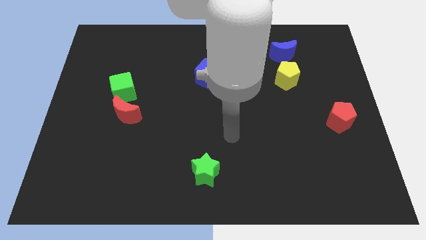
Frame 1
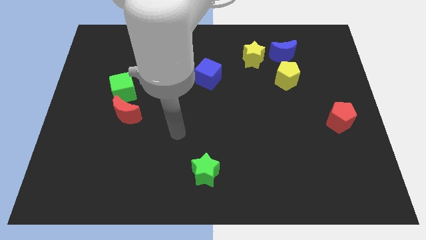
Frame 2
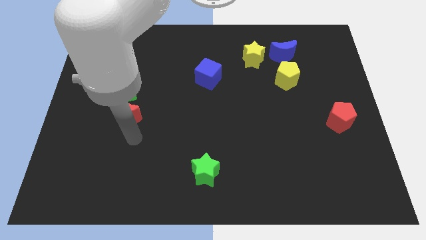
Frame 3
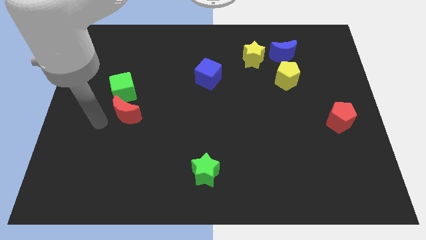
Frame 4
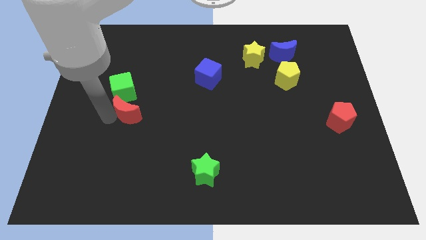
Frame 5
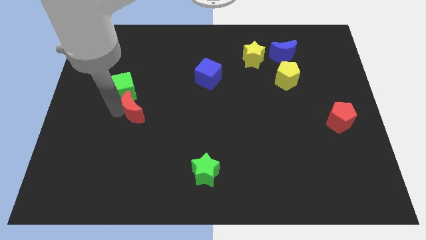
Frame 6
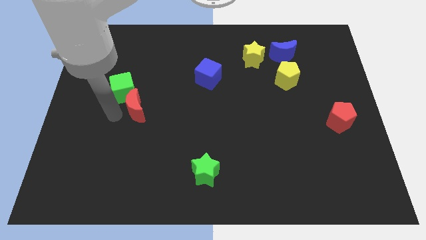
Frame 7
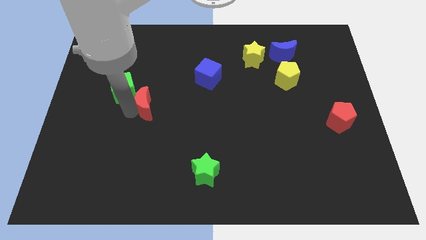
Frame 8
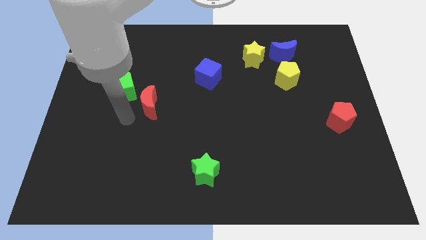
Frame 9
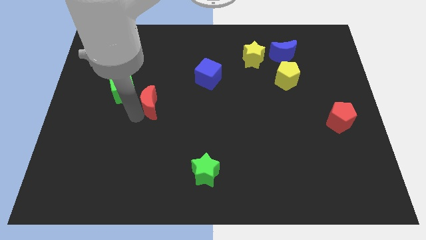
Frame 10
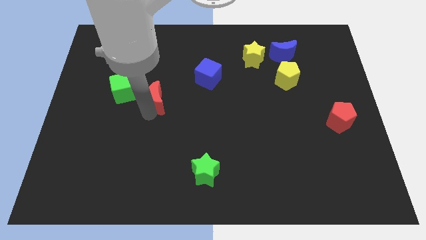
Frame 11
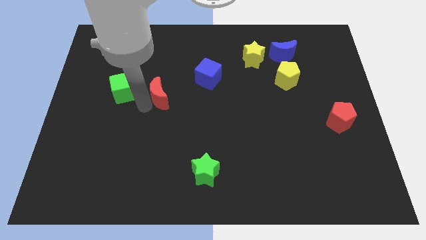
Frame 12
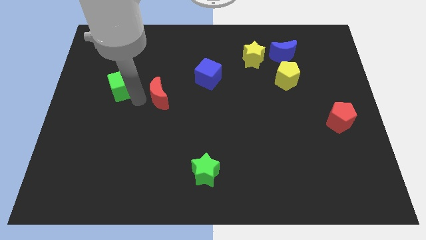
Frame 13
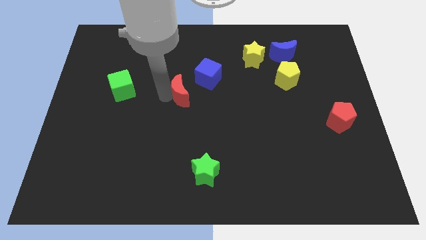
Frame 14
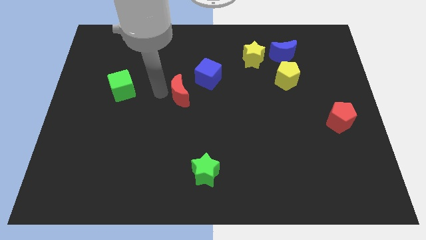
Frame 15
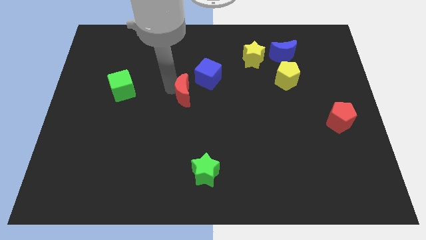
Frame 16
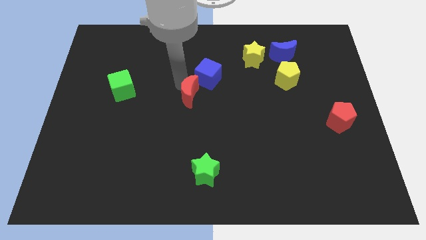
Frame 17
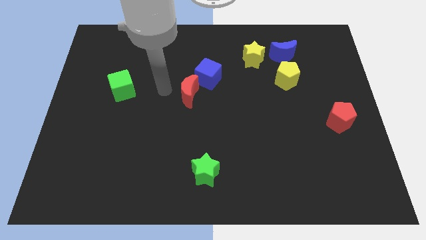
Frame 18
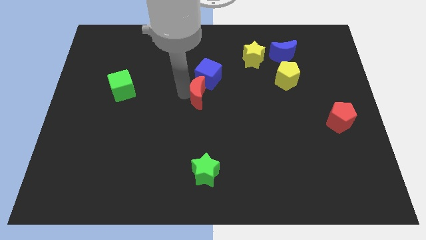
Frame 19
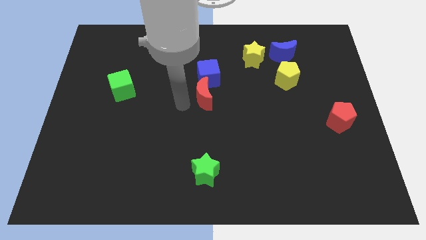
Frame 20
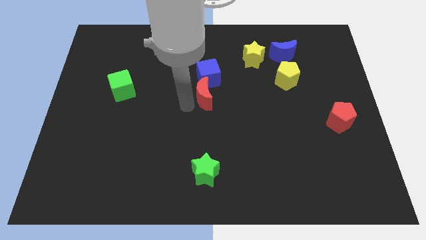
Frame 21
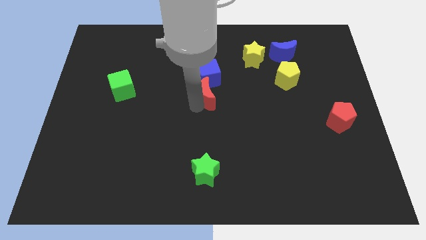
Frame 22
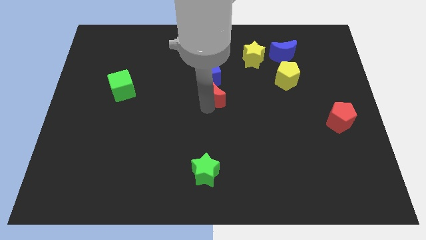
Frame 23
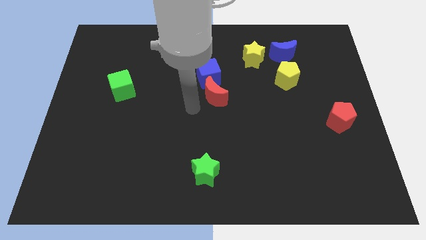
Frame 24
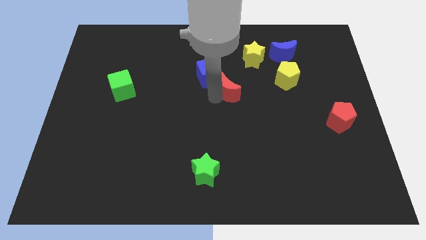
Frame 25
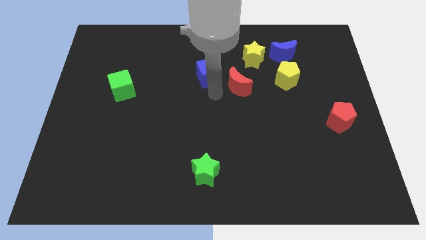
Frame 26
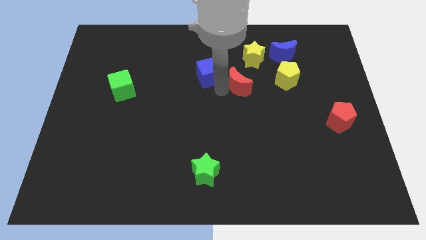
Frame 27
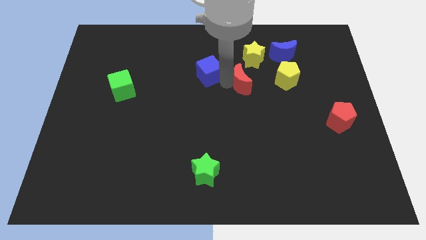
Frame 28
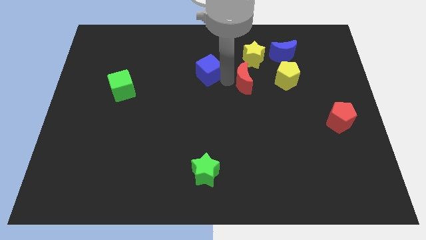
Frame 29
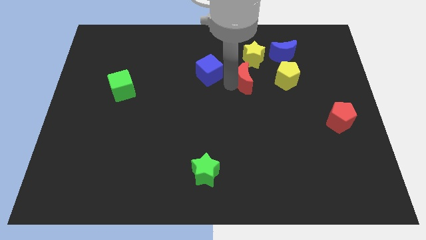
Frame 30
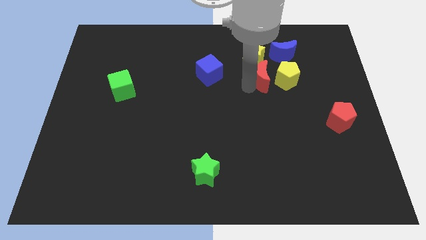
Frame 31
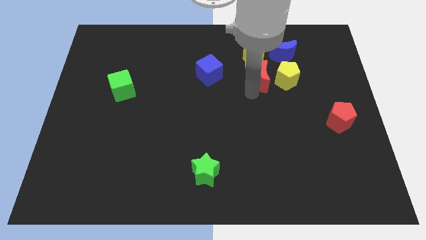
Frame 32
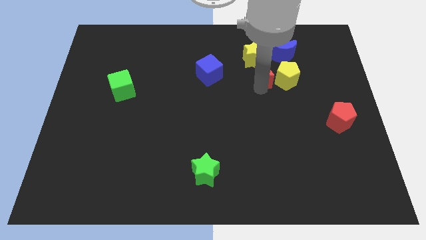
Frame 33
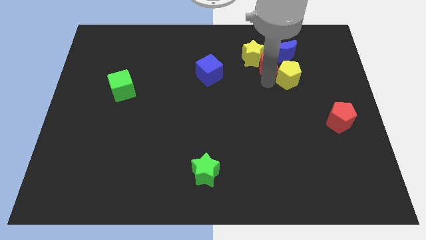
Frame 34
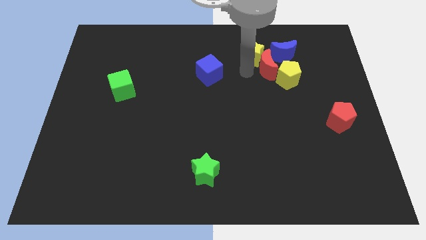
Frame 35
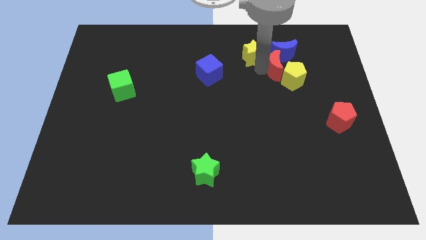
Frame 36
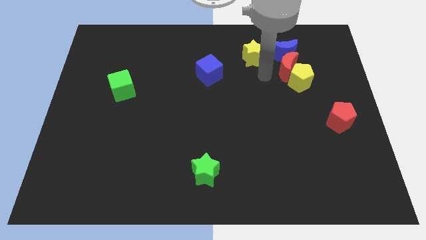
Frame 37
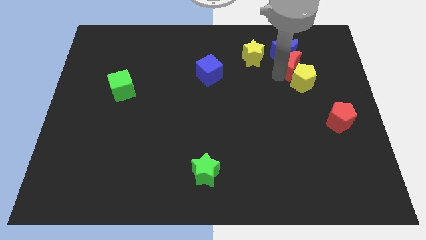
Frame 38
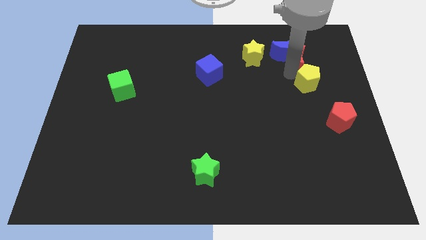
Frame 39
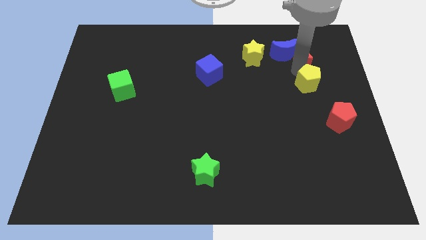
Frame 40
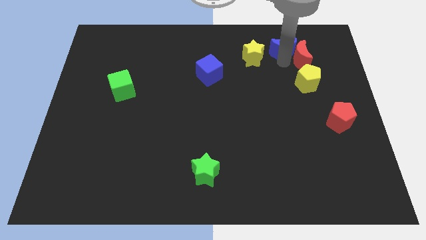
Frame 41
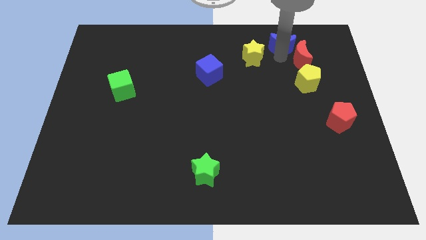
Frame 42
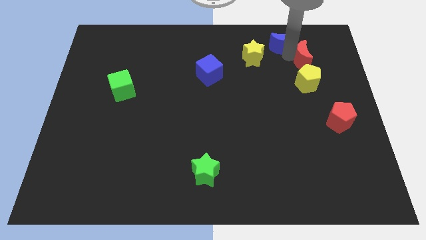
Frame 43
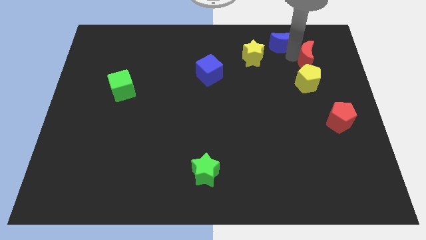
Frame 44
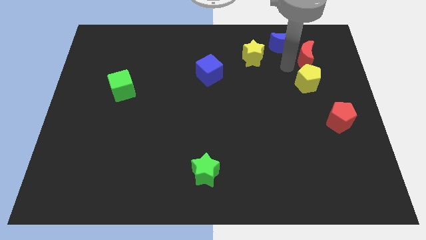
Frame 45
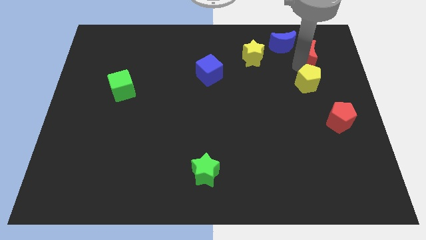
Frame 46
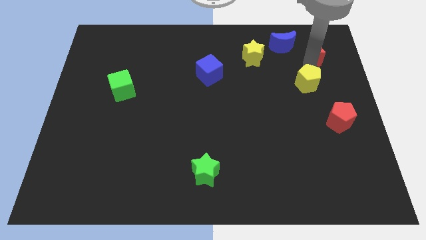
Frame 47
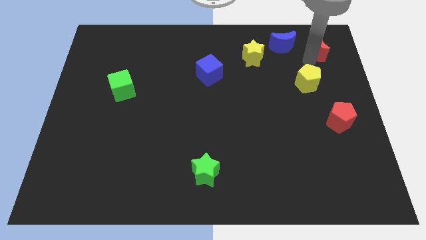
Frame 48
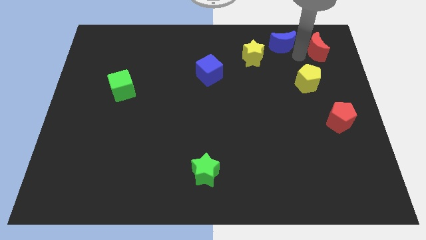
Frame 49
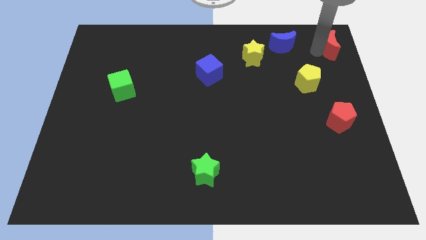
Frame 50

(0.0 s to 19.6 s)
move the red moon to the top right of the board

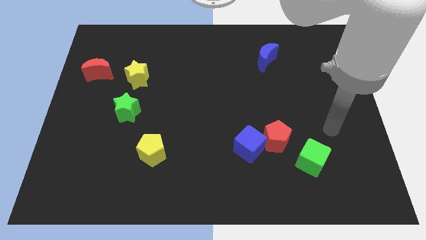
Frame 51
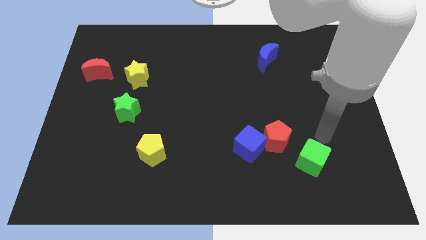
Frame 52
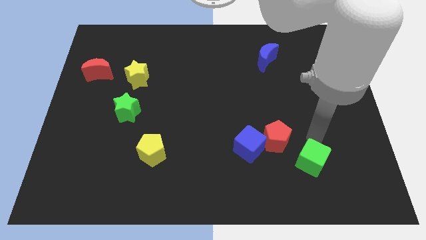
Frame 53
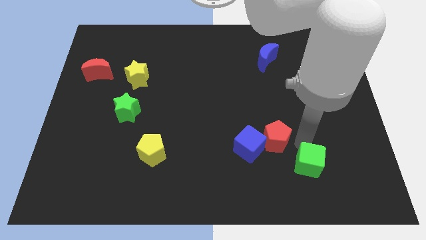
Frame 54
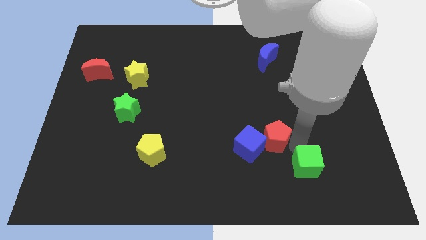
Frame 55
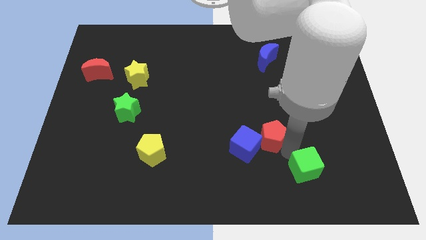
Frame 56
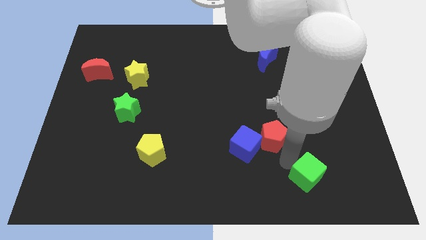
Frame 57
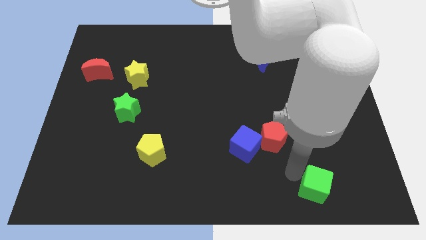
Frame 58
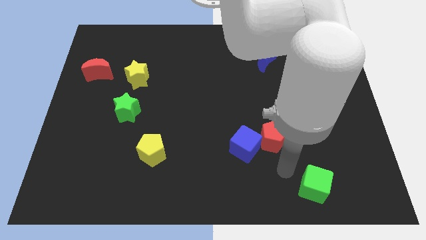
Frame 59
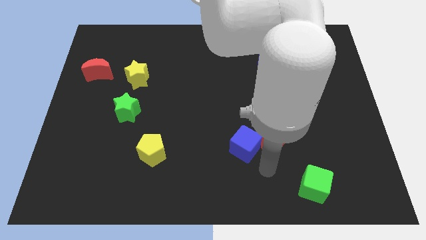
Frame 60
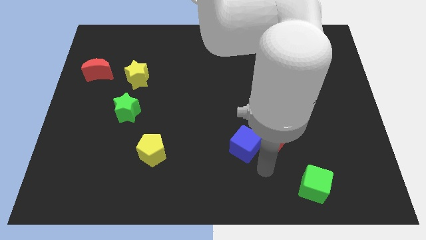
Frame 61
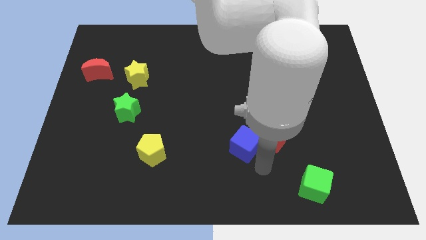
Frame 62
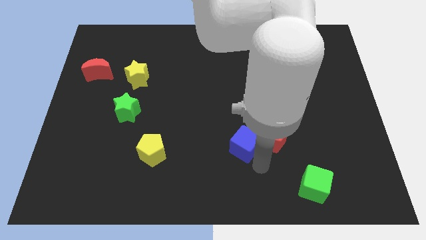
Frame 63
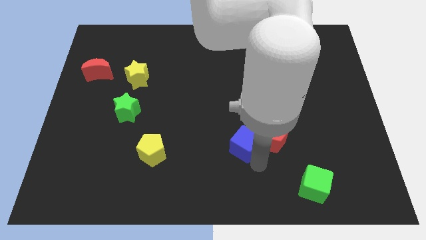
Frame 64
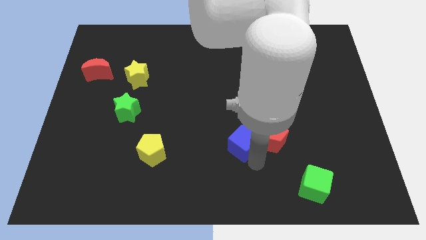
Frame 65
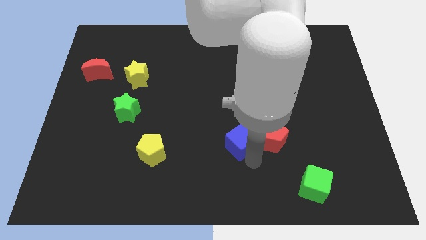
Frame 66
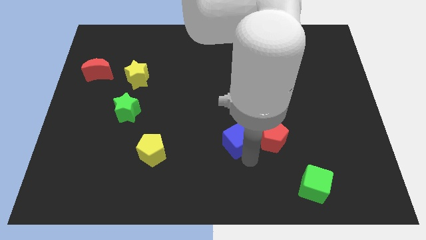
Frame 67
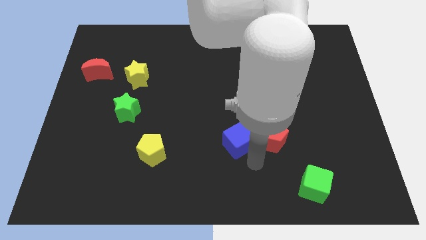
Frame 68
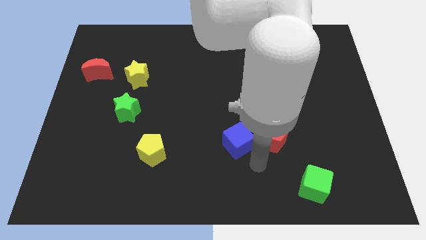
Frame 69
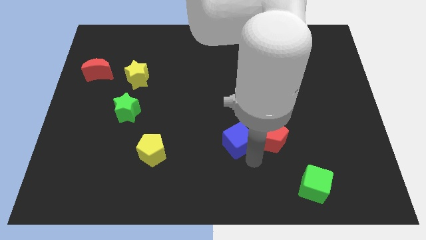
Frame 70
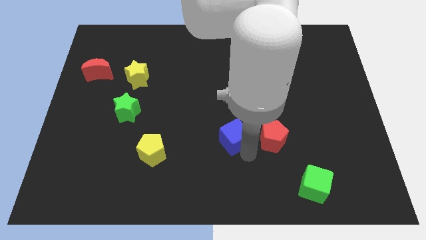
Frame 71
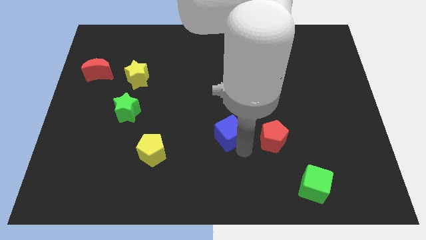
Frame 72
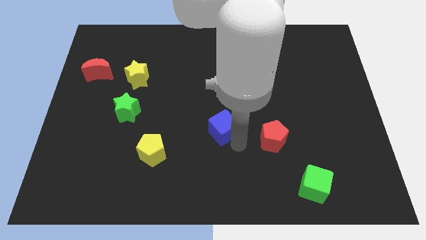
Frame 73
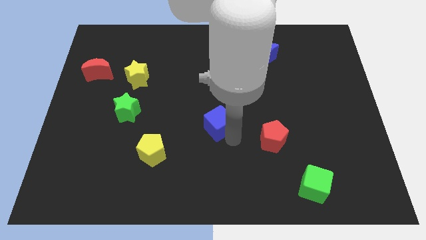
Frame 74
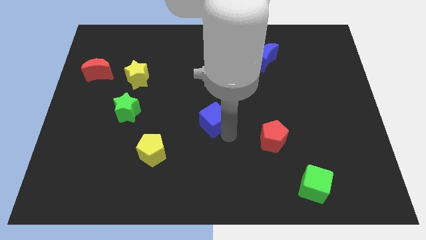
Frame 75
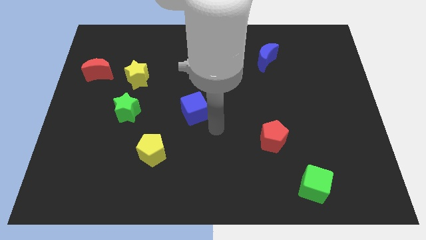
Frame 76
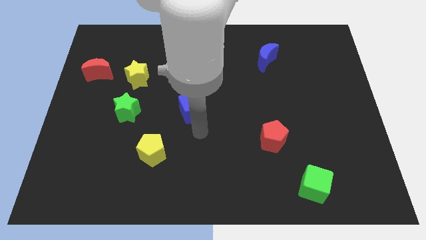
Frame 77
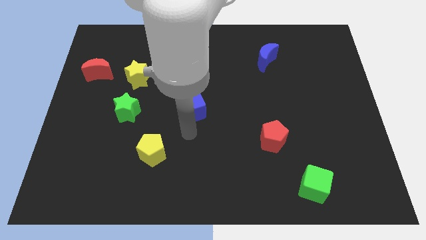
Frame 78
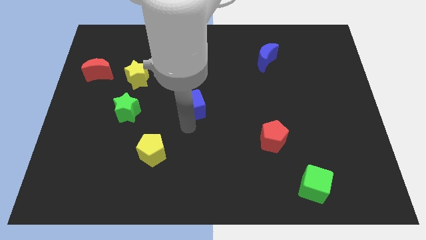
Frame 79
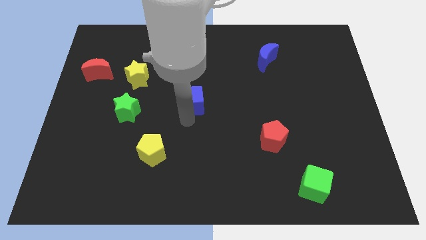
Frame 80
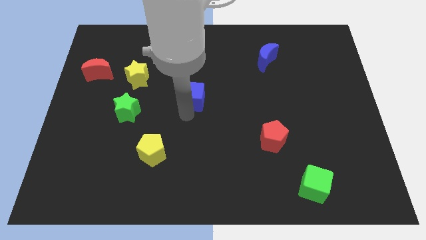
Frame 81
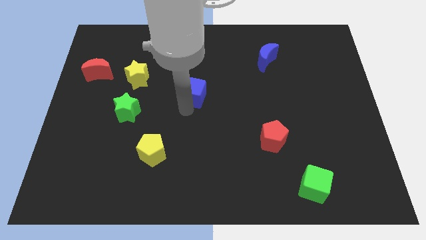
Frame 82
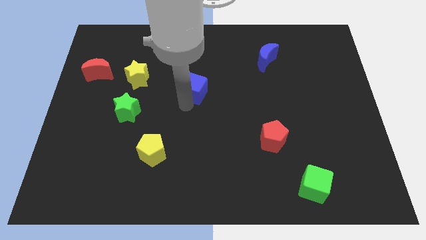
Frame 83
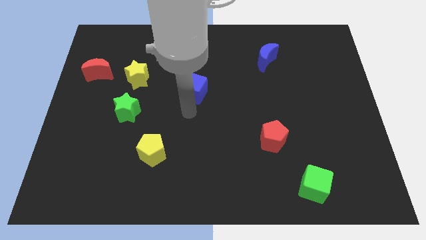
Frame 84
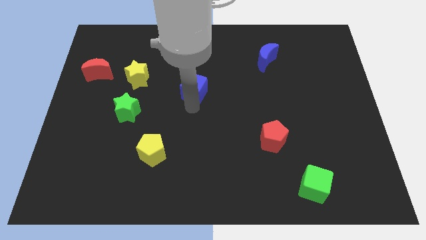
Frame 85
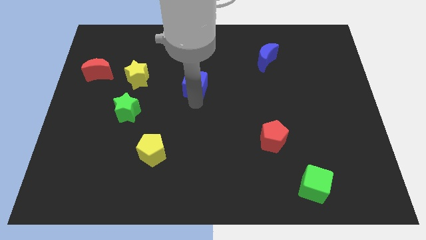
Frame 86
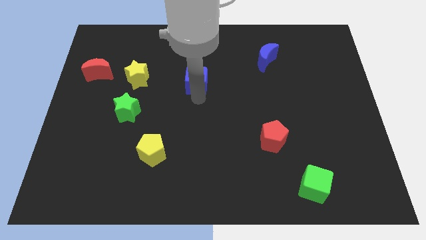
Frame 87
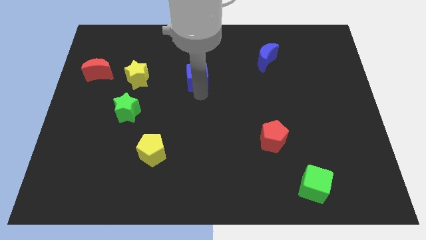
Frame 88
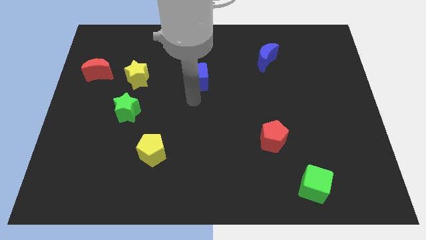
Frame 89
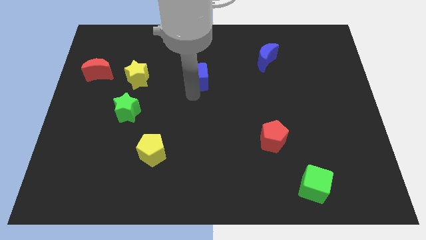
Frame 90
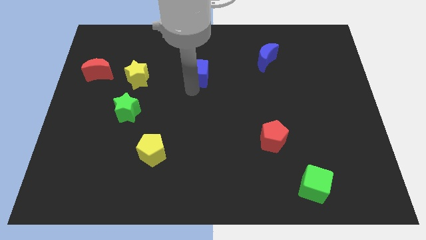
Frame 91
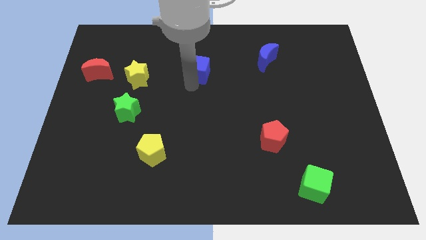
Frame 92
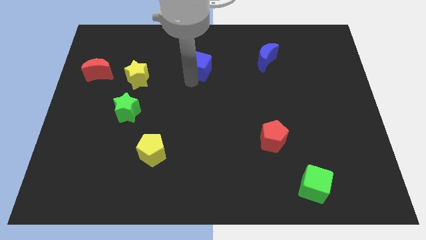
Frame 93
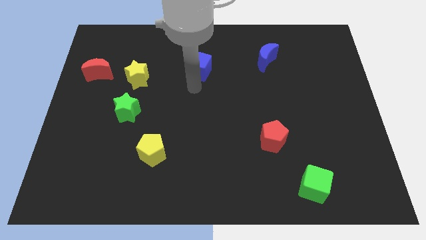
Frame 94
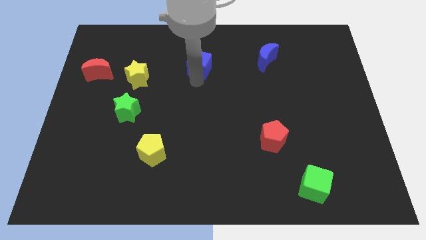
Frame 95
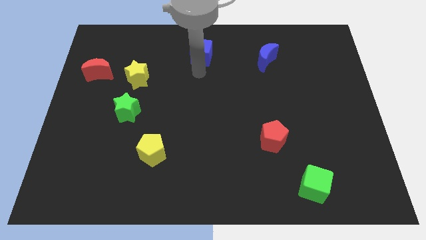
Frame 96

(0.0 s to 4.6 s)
move the blue cube to the top side
